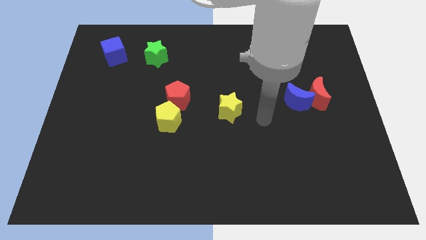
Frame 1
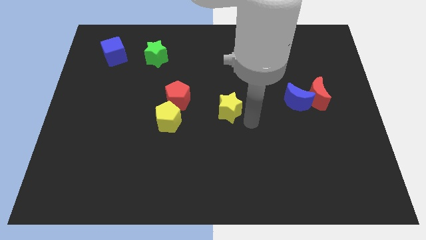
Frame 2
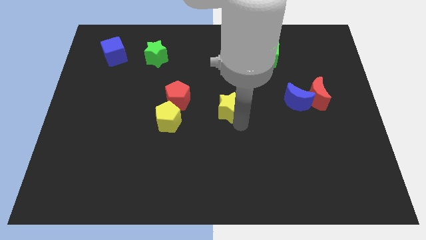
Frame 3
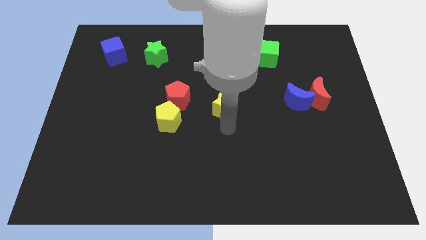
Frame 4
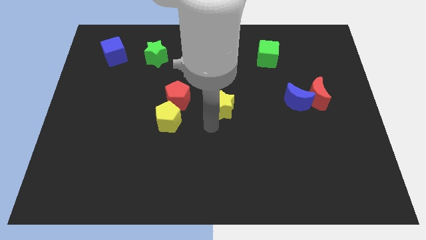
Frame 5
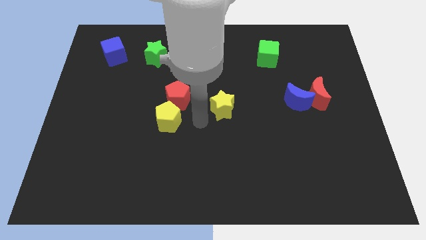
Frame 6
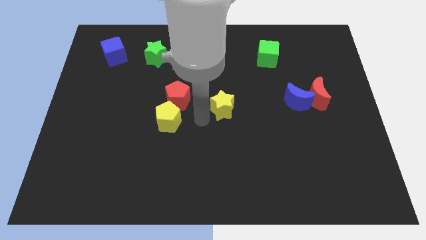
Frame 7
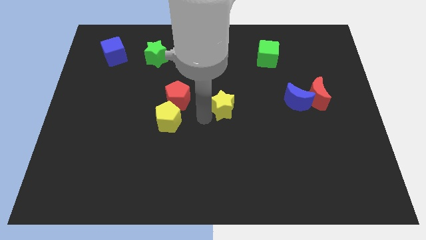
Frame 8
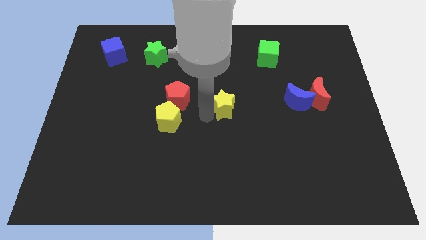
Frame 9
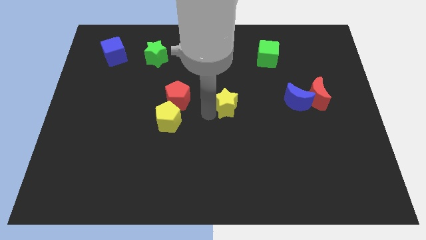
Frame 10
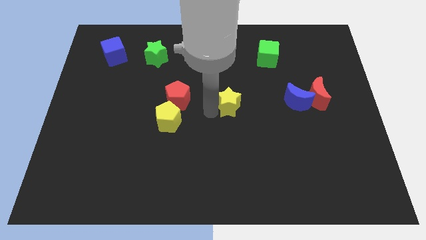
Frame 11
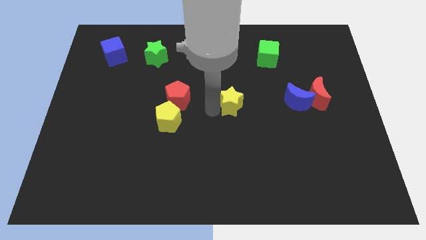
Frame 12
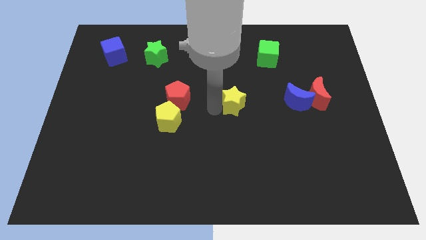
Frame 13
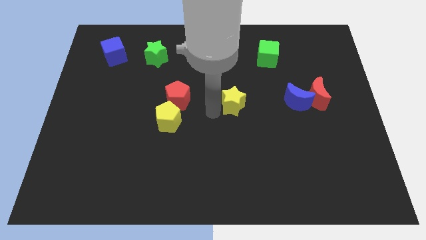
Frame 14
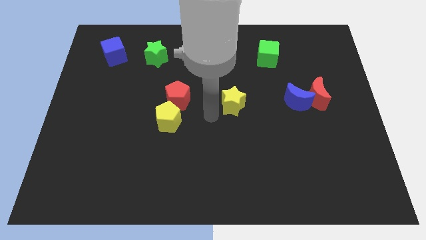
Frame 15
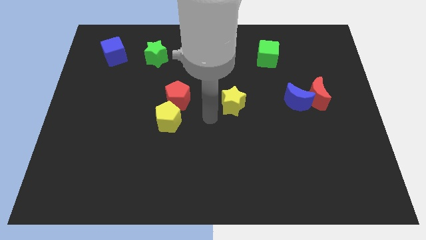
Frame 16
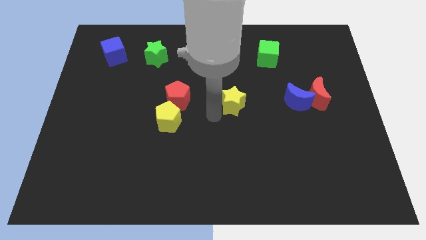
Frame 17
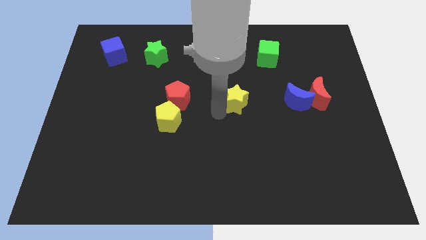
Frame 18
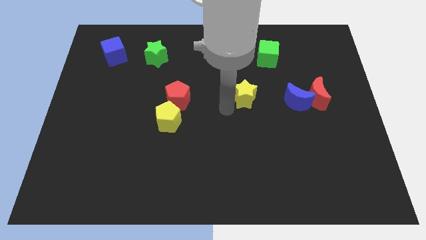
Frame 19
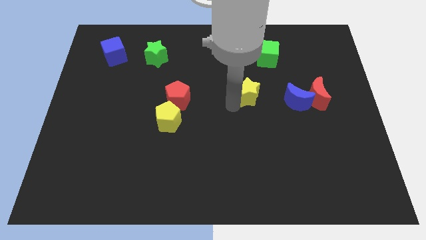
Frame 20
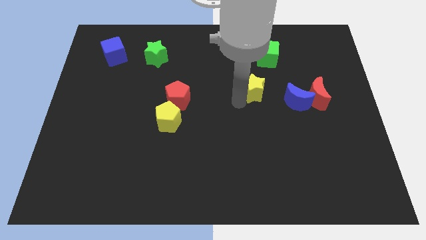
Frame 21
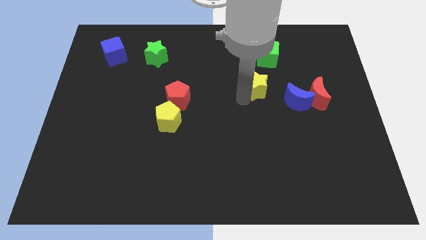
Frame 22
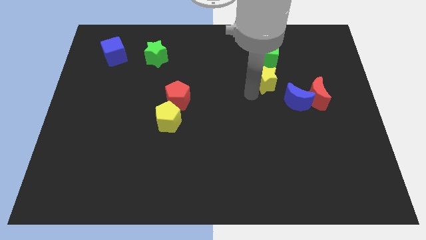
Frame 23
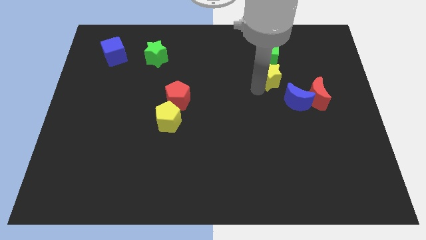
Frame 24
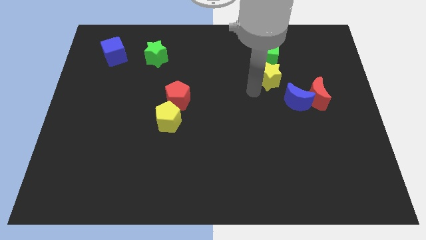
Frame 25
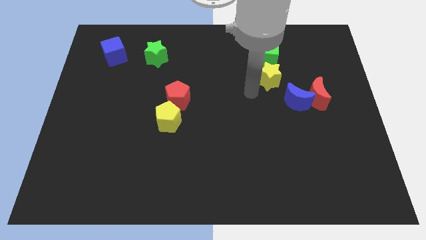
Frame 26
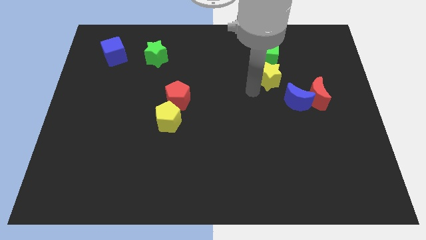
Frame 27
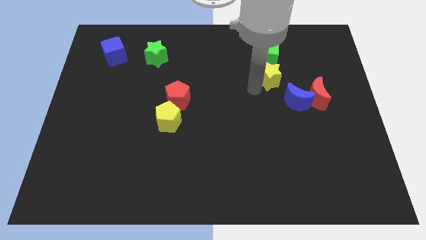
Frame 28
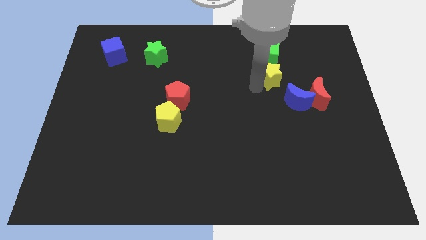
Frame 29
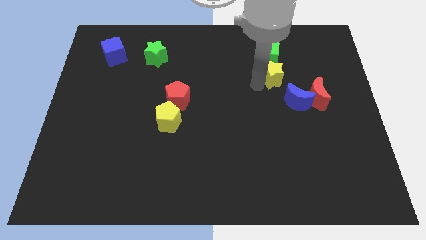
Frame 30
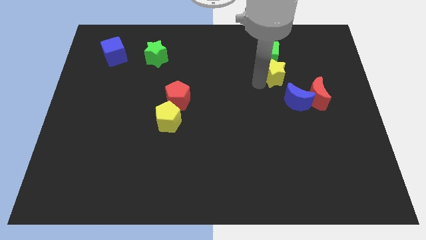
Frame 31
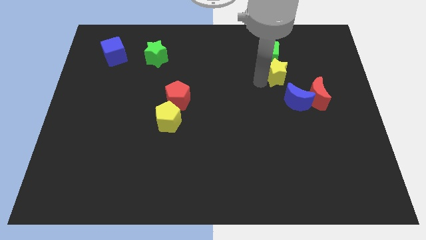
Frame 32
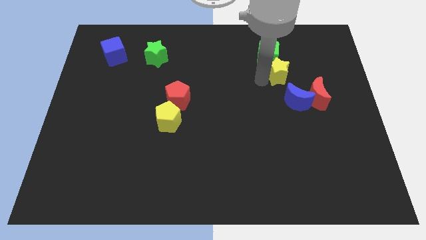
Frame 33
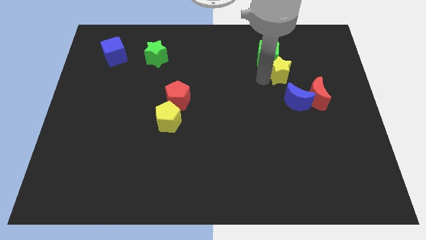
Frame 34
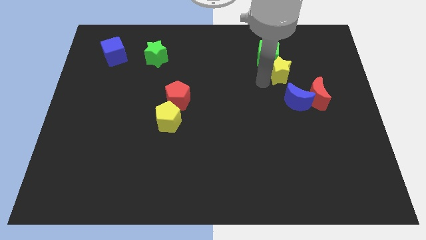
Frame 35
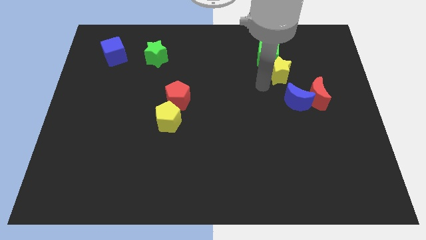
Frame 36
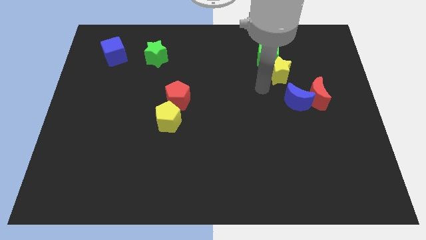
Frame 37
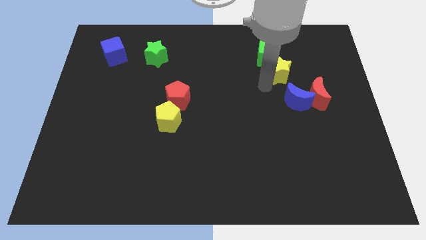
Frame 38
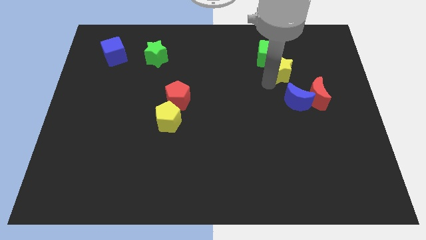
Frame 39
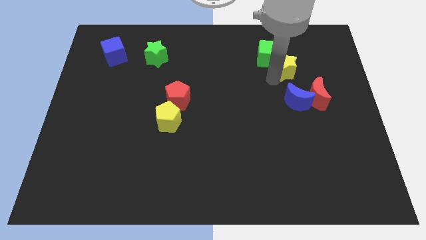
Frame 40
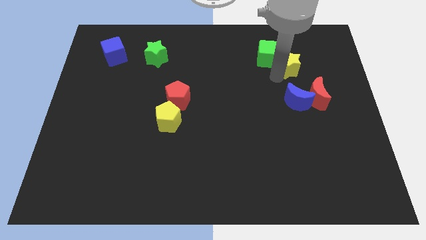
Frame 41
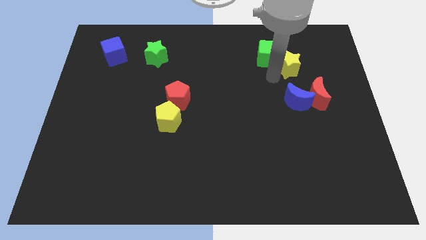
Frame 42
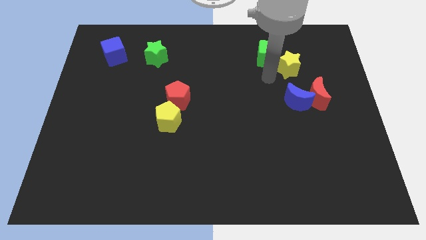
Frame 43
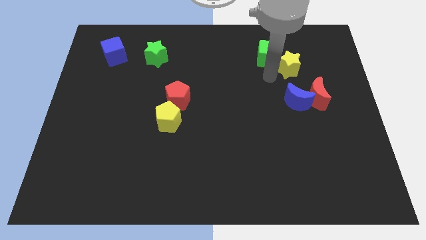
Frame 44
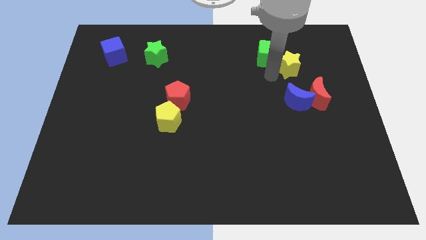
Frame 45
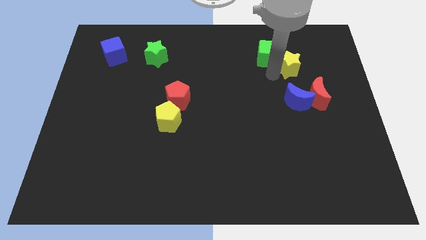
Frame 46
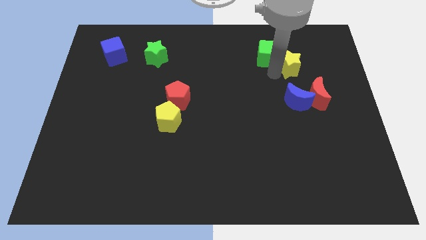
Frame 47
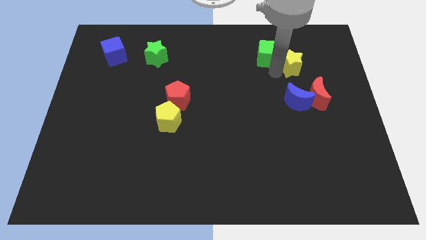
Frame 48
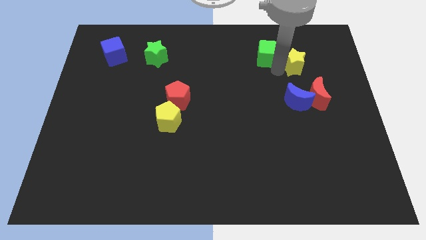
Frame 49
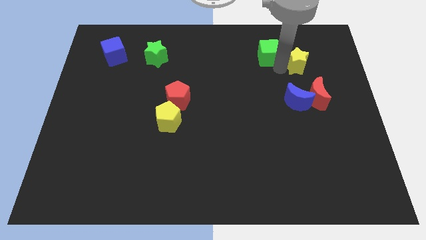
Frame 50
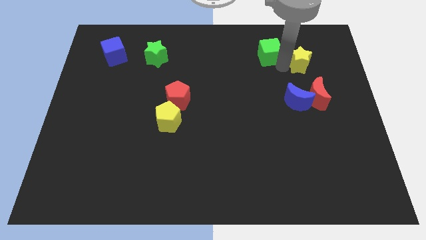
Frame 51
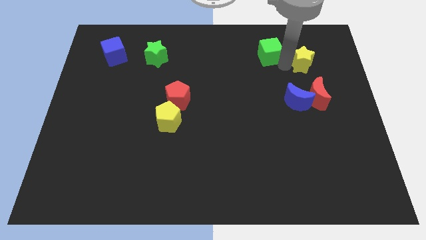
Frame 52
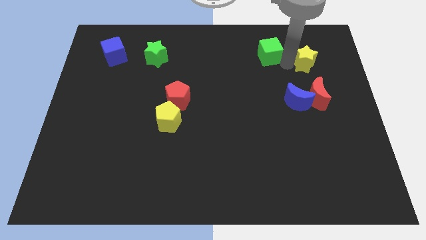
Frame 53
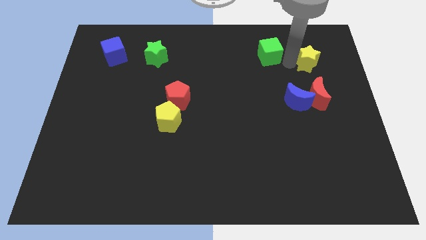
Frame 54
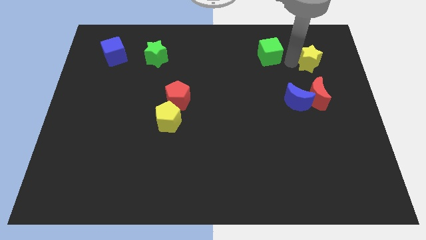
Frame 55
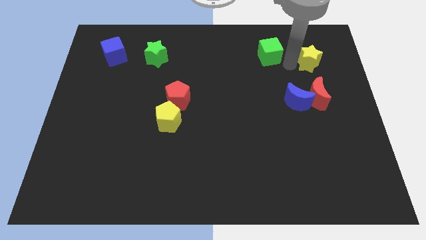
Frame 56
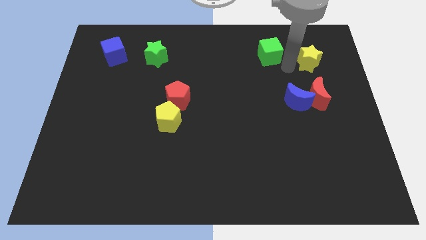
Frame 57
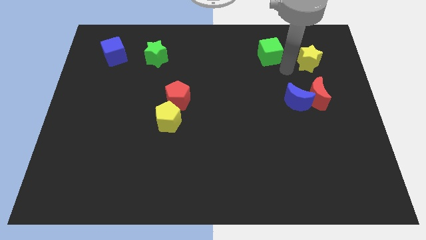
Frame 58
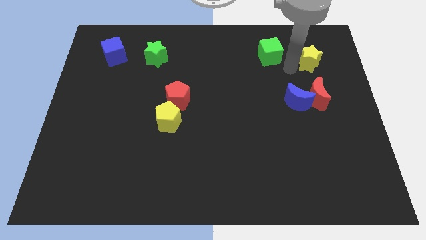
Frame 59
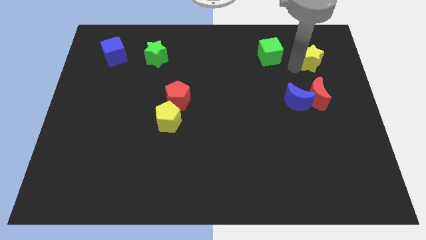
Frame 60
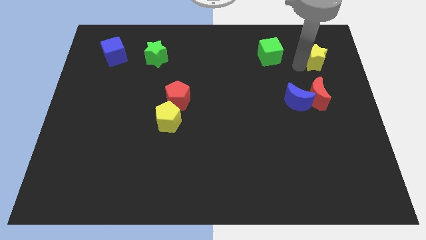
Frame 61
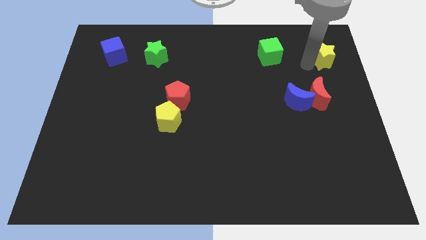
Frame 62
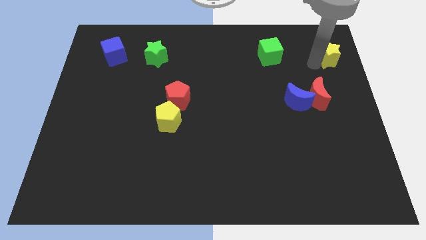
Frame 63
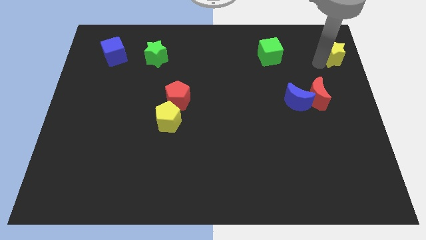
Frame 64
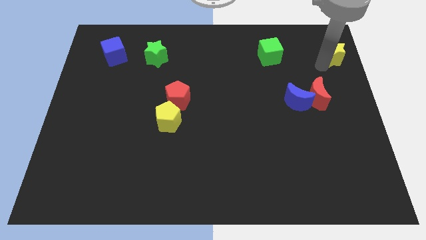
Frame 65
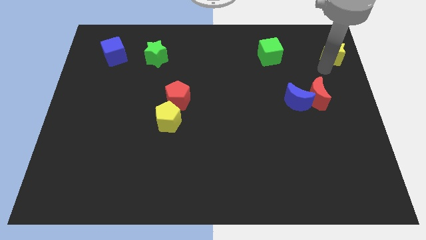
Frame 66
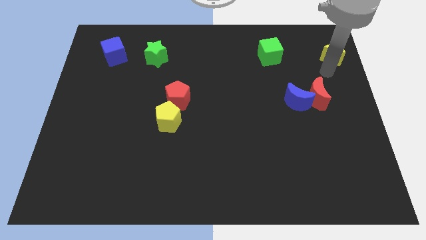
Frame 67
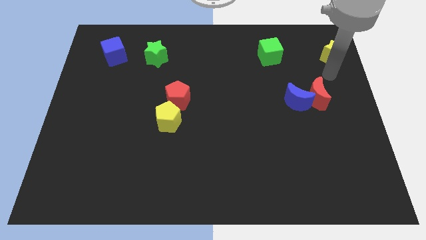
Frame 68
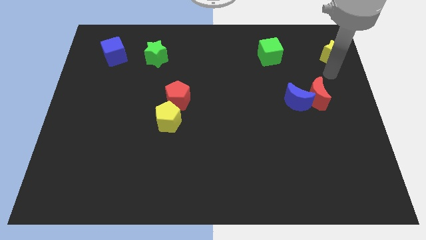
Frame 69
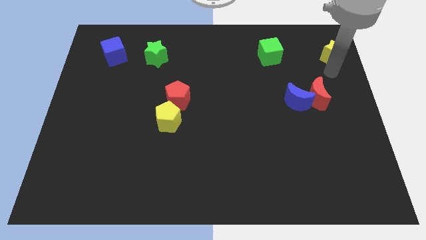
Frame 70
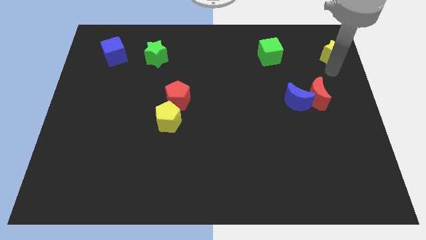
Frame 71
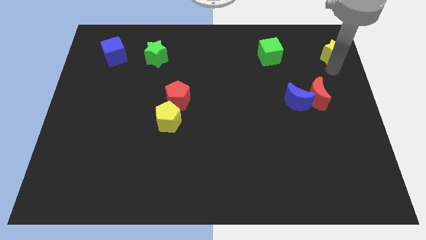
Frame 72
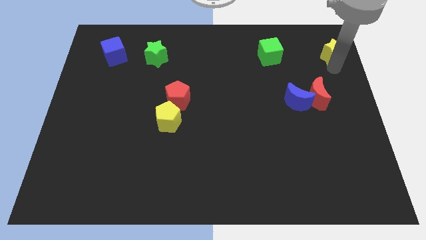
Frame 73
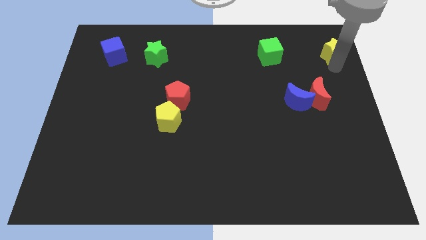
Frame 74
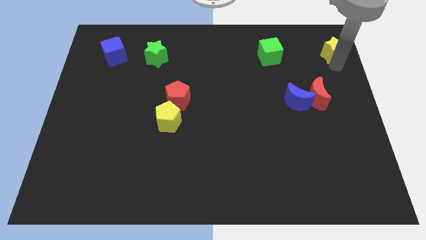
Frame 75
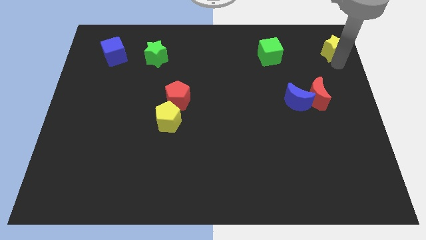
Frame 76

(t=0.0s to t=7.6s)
slide the yellow star to the upper right corner
